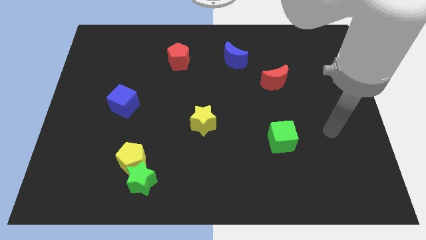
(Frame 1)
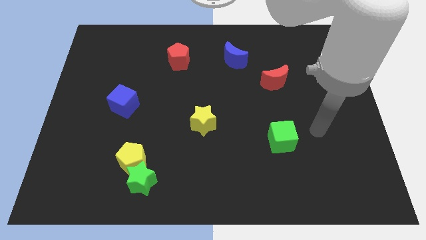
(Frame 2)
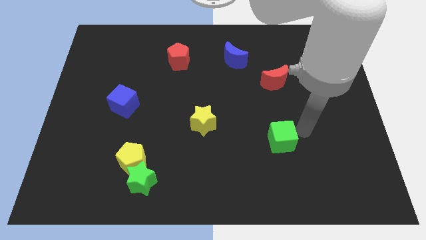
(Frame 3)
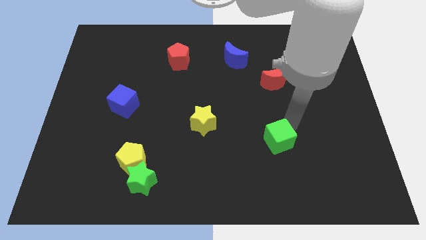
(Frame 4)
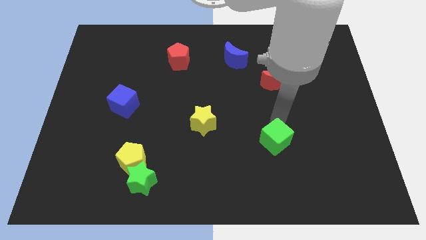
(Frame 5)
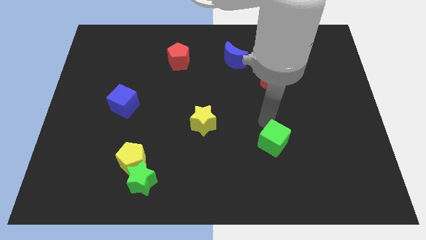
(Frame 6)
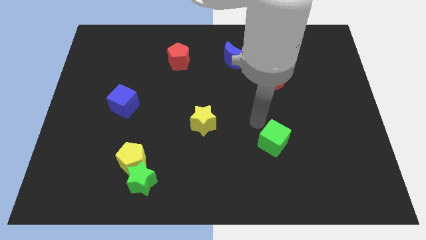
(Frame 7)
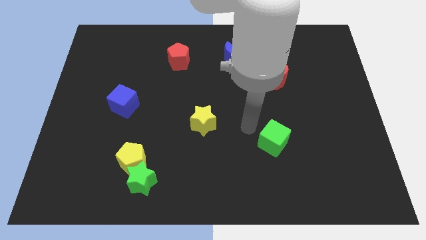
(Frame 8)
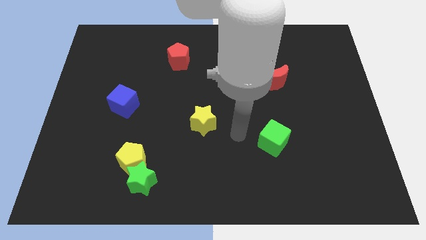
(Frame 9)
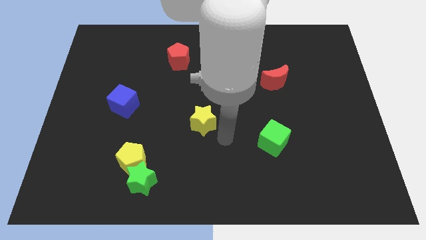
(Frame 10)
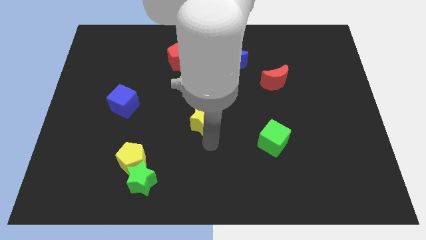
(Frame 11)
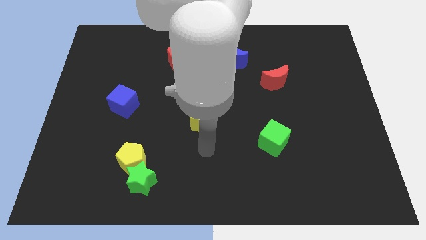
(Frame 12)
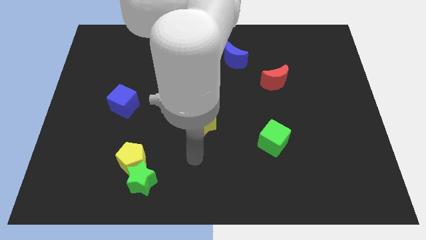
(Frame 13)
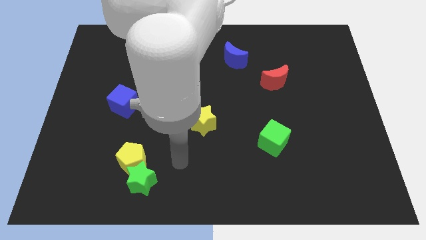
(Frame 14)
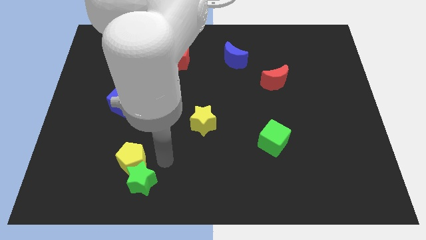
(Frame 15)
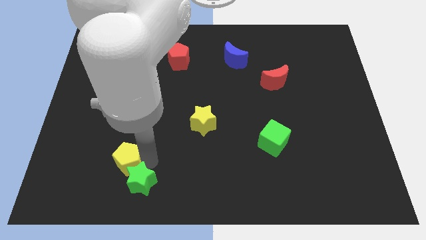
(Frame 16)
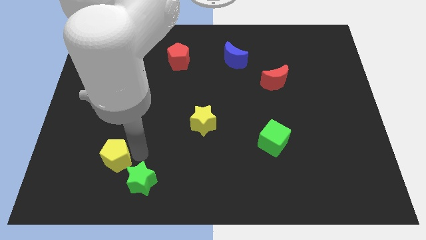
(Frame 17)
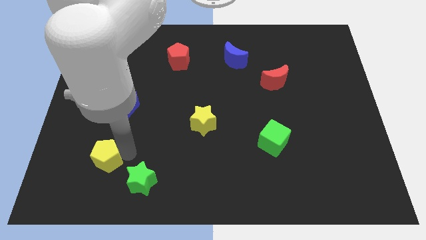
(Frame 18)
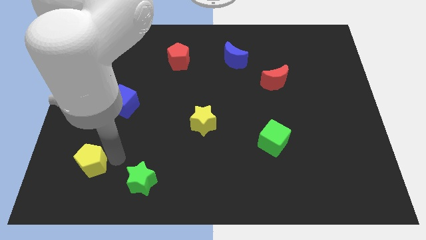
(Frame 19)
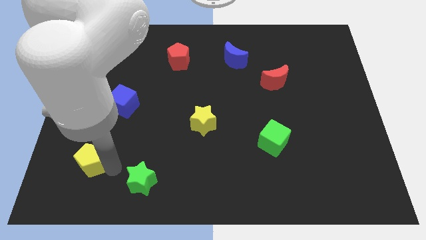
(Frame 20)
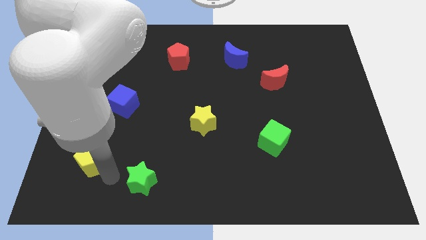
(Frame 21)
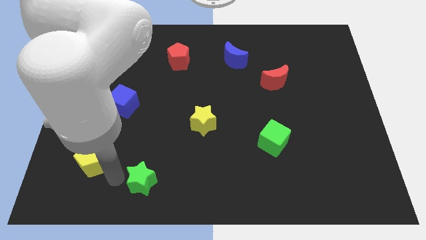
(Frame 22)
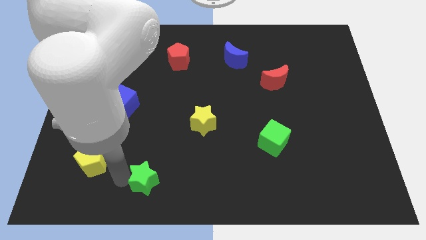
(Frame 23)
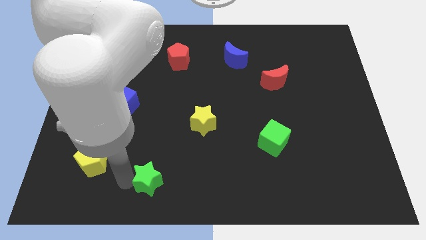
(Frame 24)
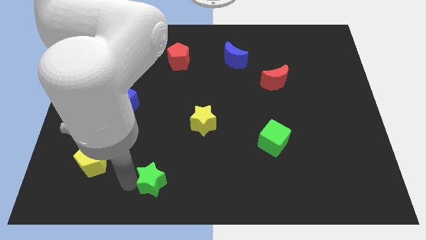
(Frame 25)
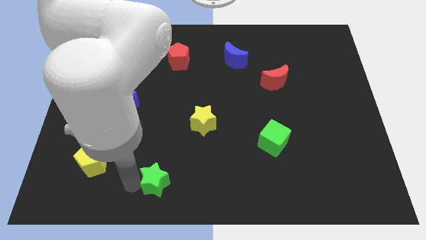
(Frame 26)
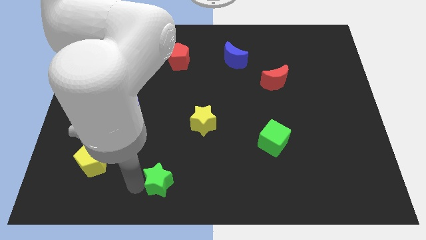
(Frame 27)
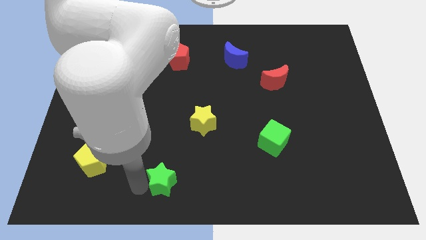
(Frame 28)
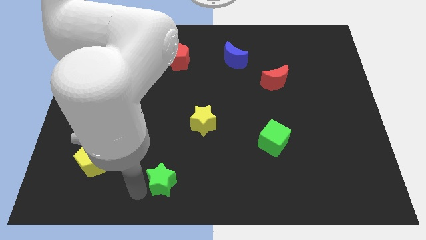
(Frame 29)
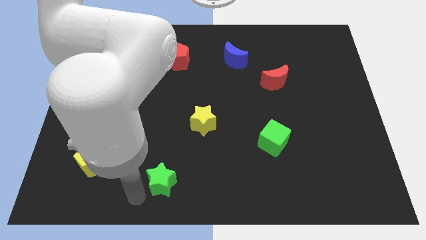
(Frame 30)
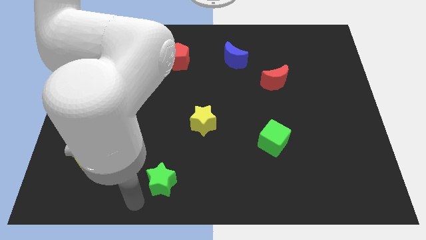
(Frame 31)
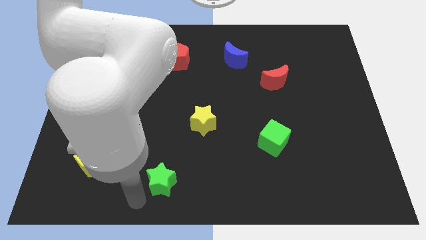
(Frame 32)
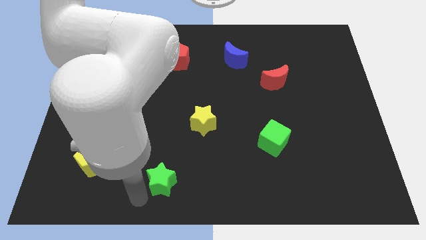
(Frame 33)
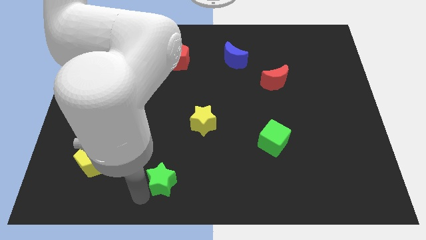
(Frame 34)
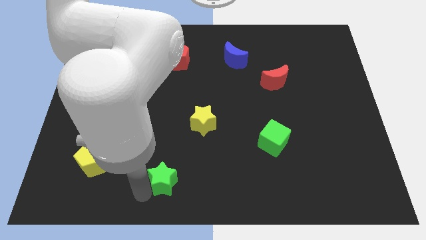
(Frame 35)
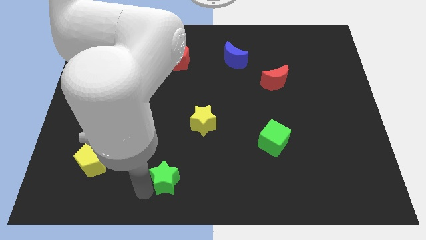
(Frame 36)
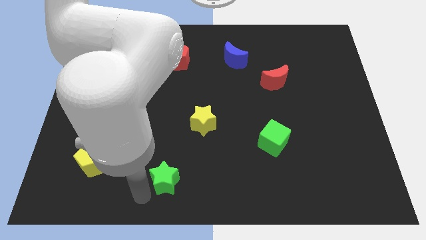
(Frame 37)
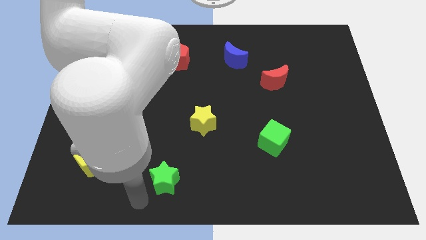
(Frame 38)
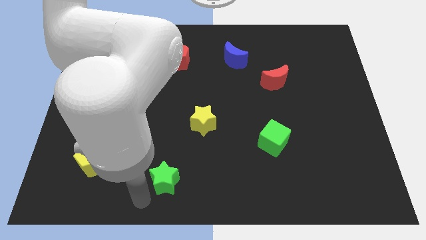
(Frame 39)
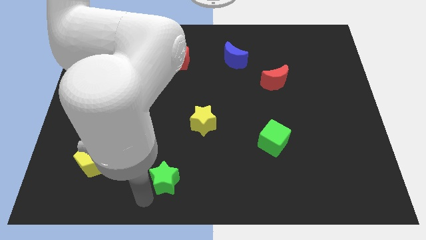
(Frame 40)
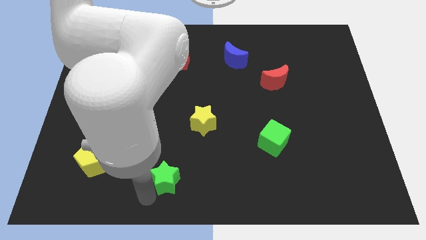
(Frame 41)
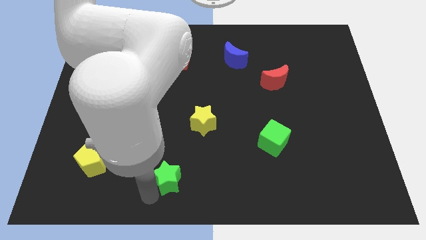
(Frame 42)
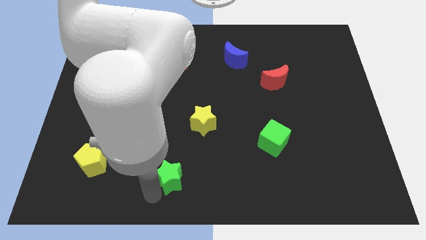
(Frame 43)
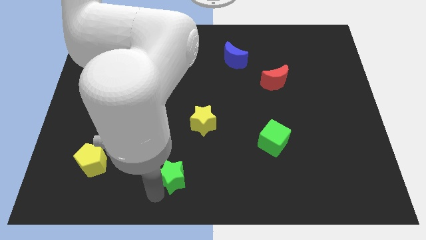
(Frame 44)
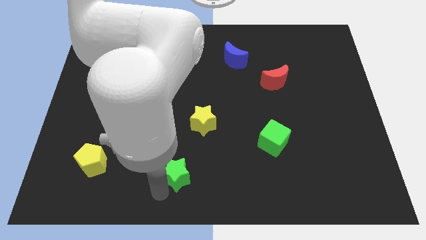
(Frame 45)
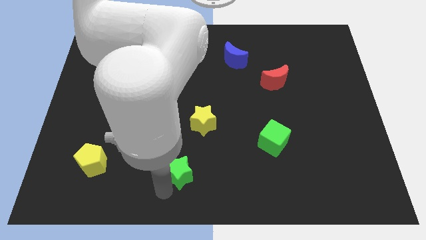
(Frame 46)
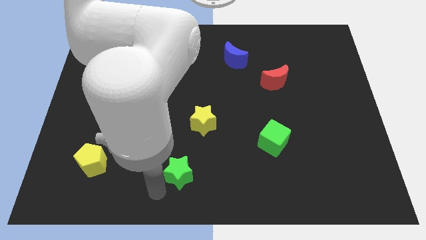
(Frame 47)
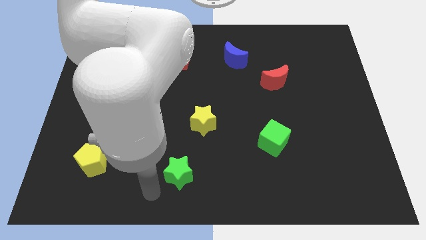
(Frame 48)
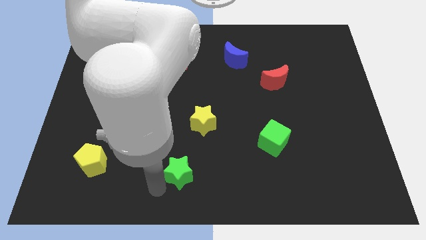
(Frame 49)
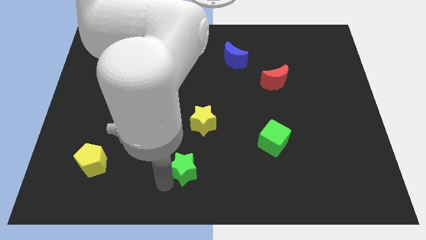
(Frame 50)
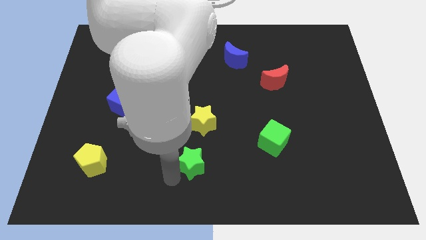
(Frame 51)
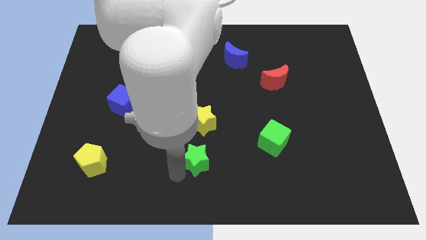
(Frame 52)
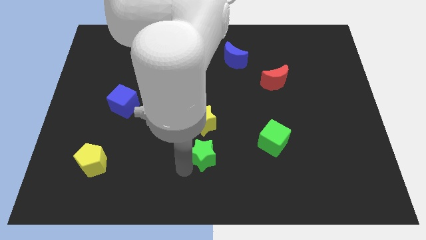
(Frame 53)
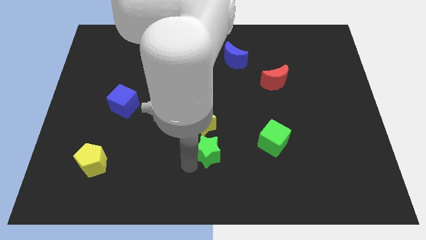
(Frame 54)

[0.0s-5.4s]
push the green star left of the green cube

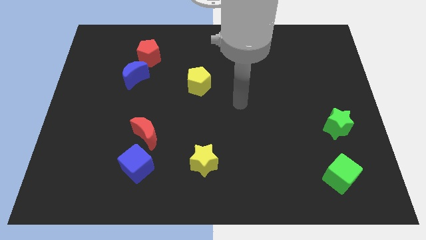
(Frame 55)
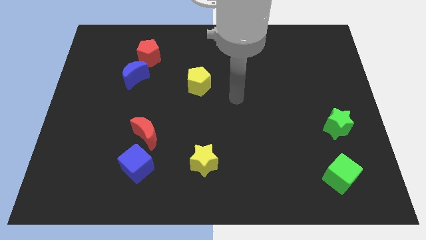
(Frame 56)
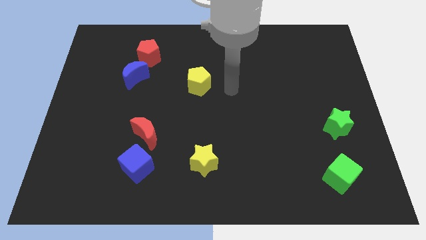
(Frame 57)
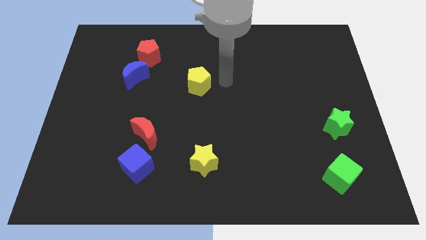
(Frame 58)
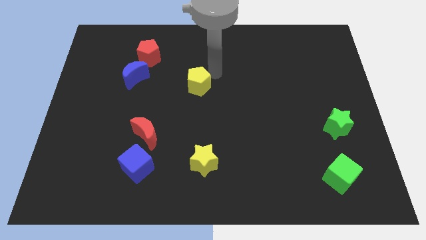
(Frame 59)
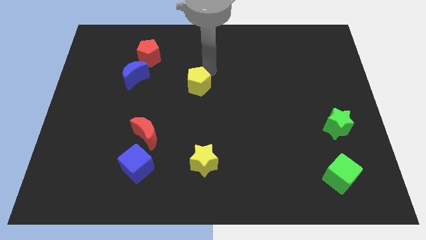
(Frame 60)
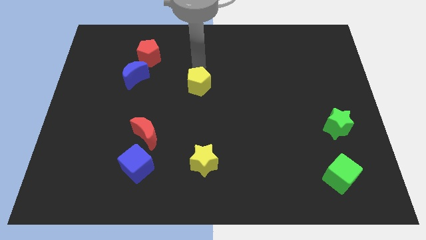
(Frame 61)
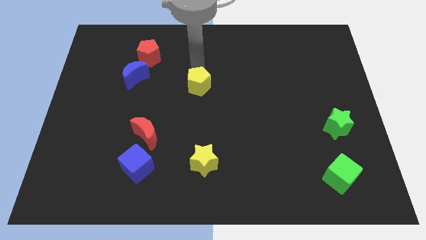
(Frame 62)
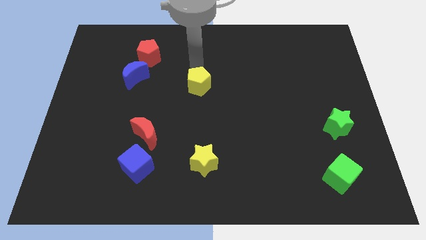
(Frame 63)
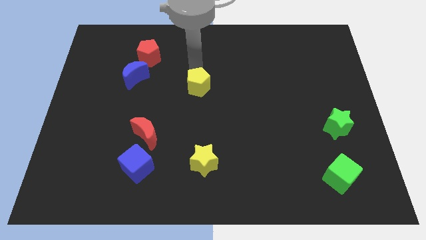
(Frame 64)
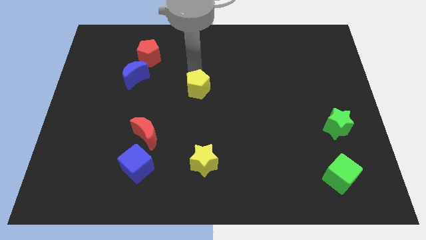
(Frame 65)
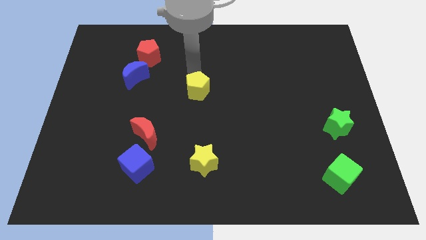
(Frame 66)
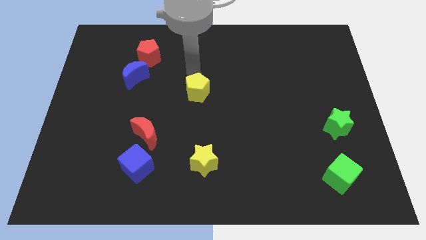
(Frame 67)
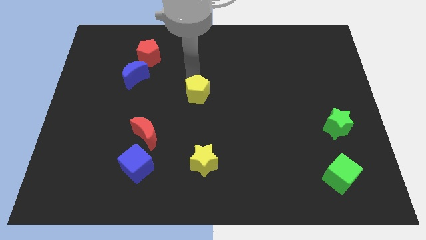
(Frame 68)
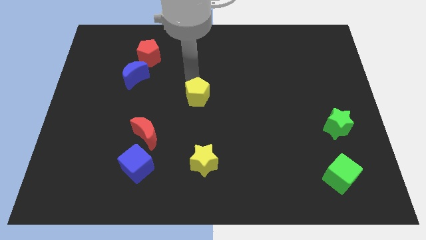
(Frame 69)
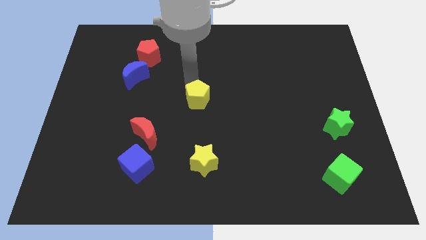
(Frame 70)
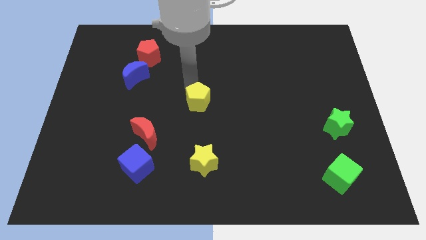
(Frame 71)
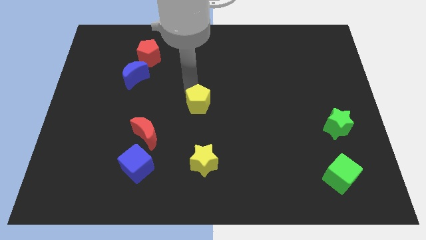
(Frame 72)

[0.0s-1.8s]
move the yellow pentagon to the top side of the yellow star
